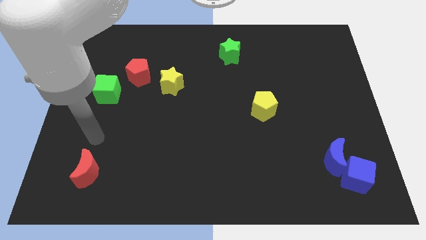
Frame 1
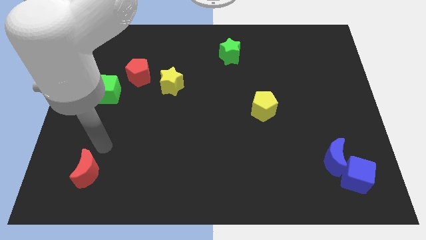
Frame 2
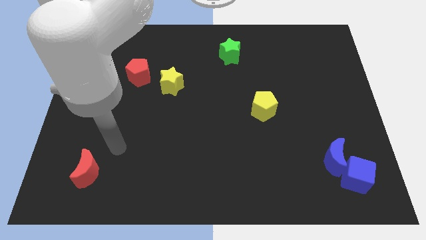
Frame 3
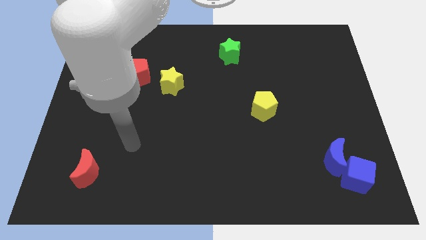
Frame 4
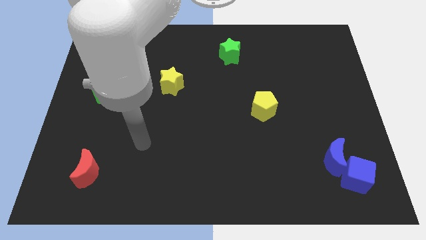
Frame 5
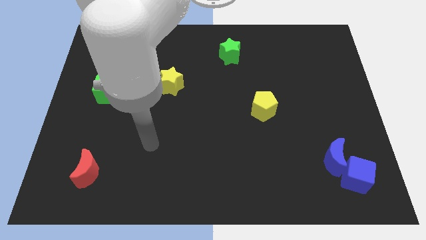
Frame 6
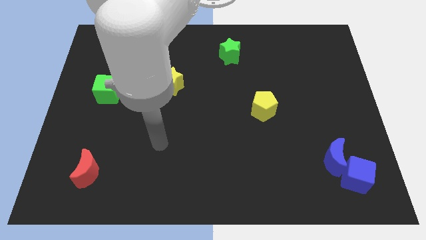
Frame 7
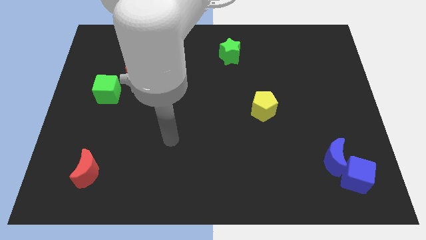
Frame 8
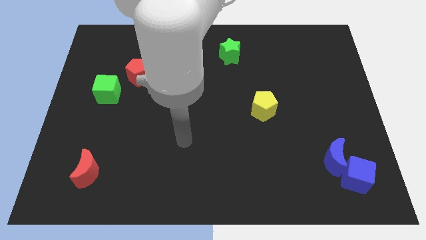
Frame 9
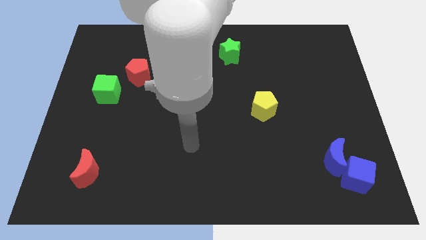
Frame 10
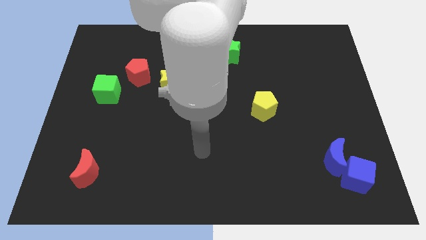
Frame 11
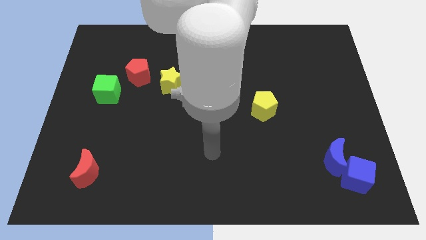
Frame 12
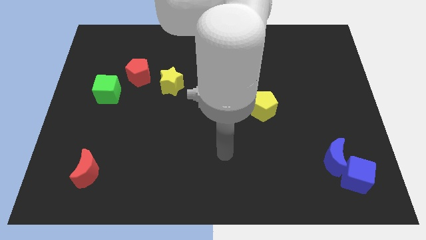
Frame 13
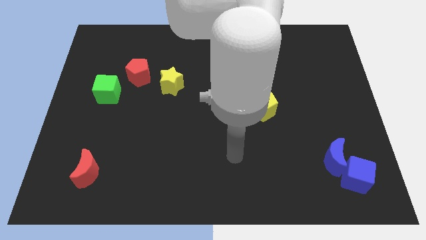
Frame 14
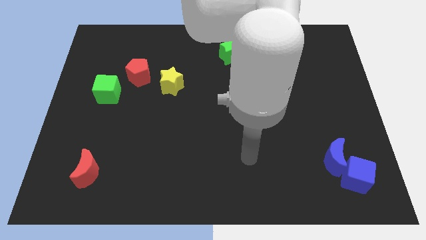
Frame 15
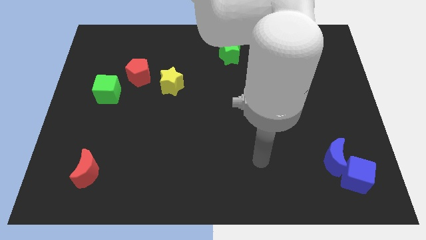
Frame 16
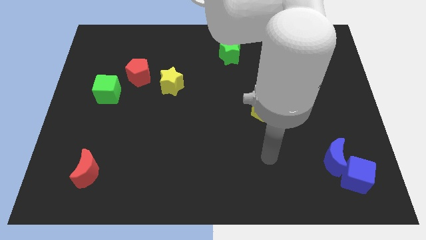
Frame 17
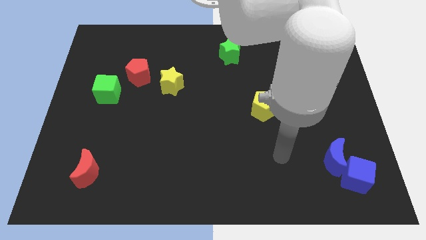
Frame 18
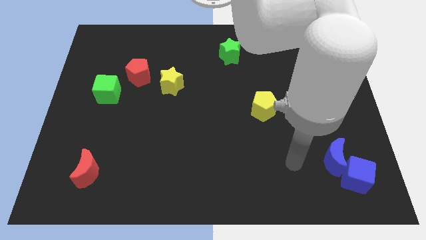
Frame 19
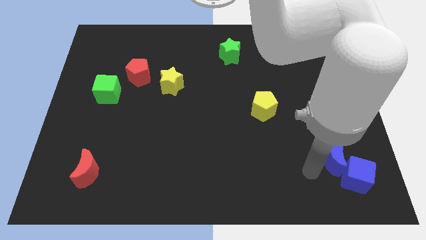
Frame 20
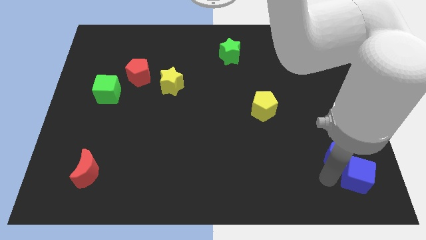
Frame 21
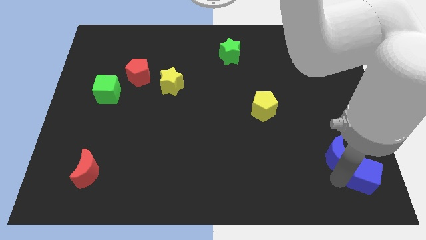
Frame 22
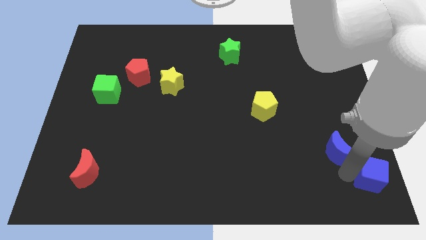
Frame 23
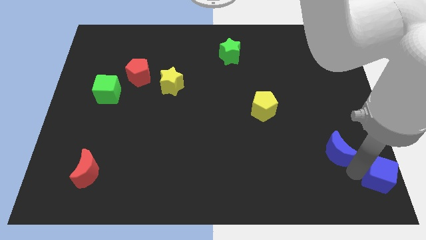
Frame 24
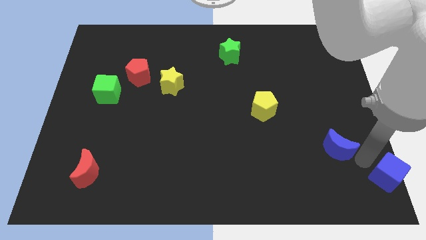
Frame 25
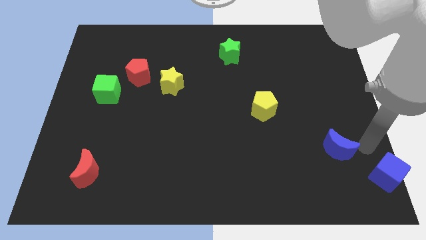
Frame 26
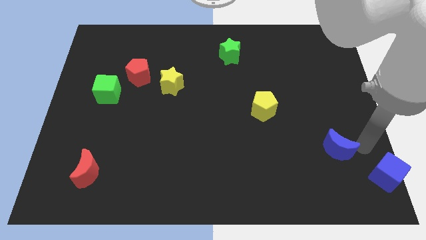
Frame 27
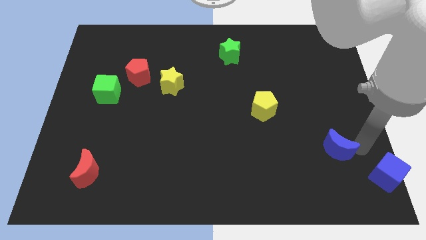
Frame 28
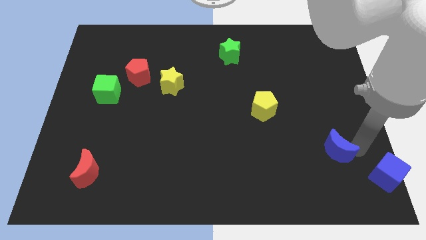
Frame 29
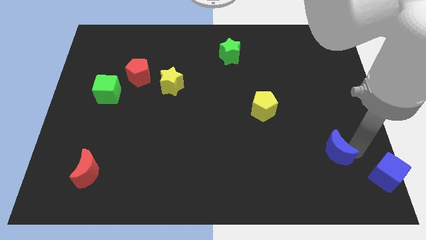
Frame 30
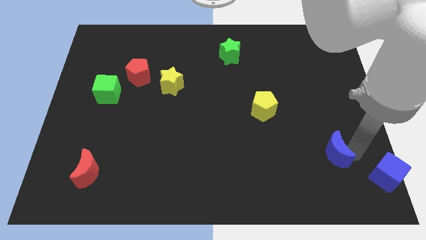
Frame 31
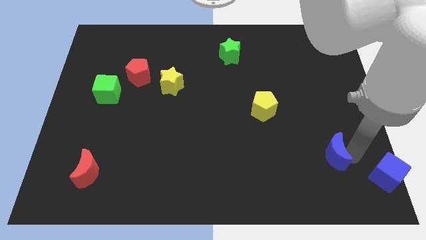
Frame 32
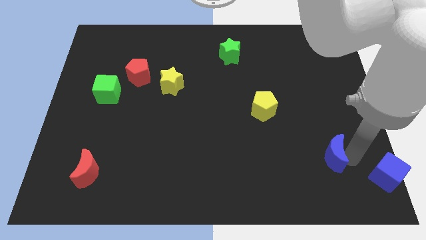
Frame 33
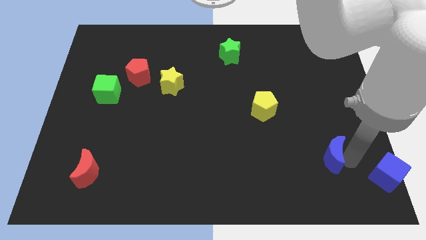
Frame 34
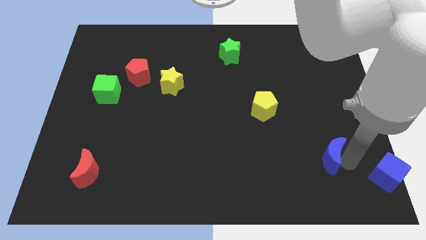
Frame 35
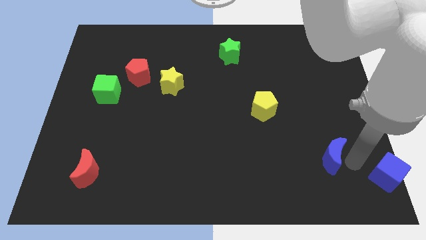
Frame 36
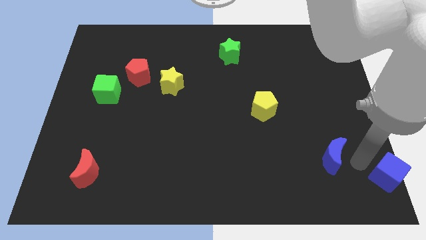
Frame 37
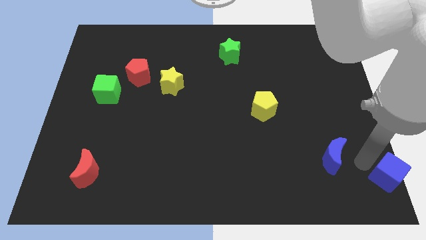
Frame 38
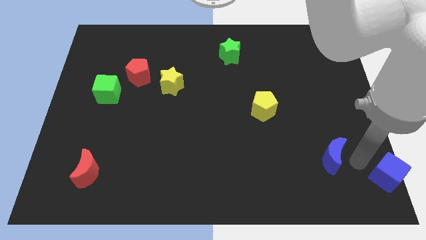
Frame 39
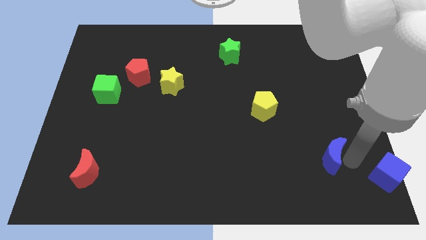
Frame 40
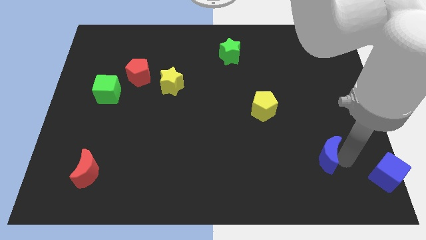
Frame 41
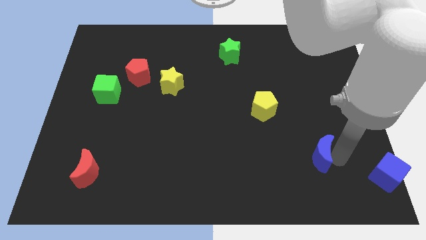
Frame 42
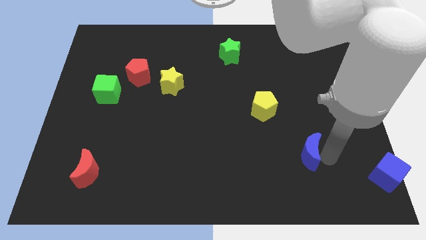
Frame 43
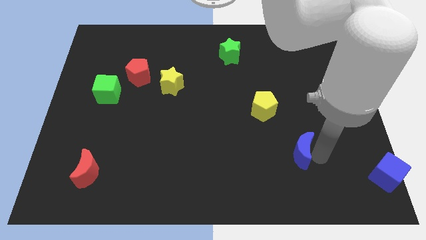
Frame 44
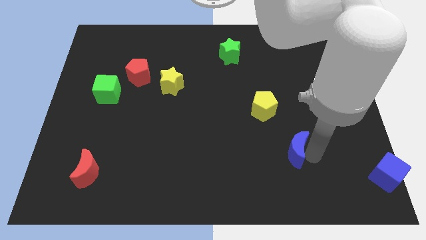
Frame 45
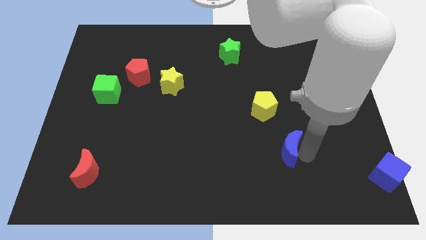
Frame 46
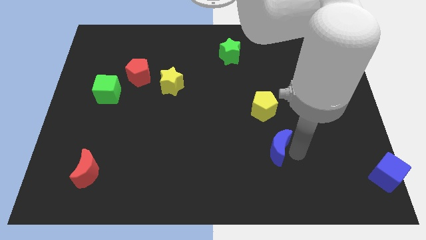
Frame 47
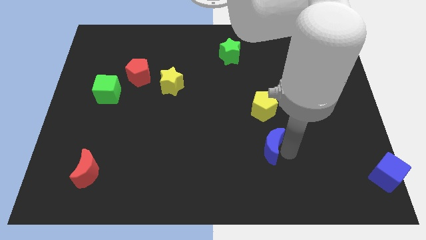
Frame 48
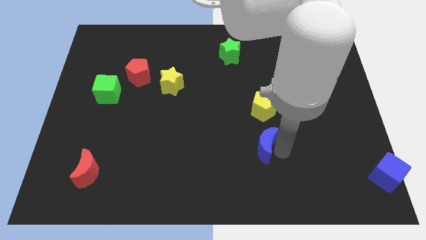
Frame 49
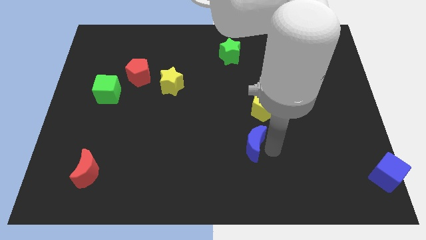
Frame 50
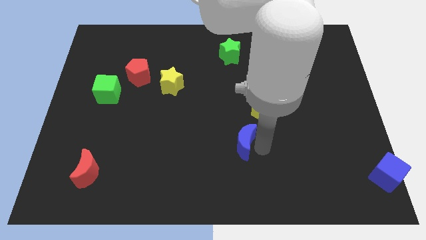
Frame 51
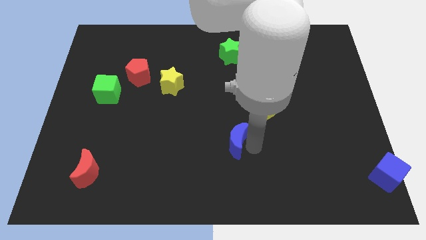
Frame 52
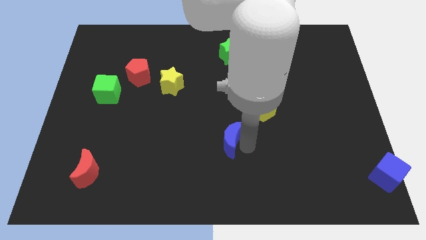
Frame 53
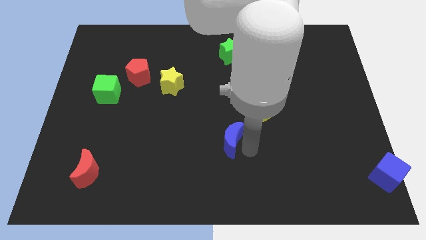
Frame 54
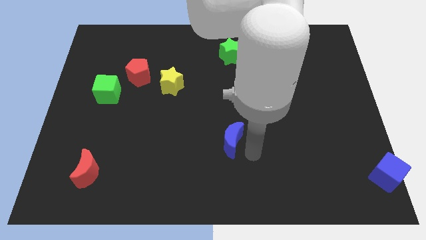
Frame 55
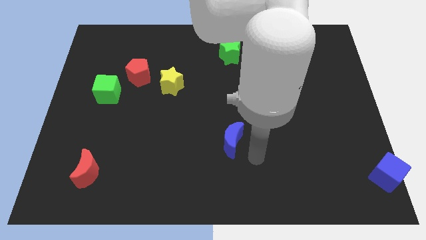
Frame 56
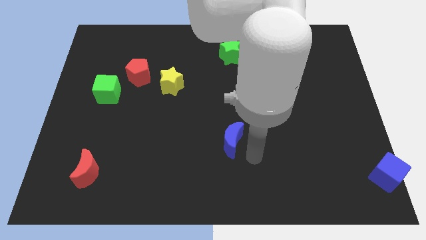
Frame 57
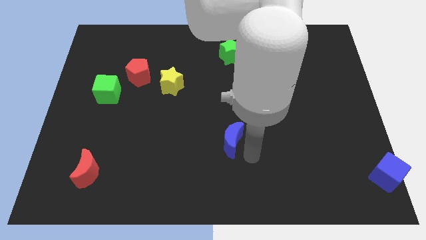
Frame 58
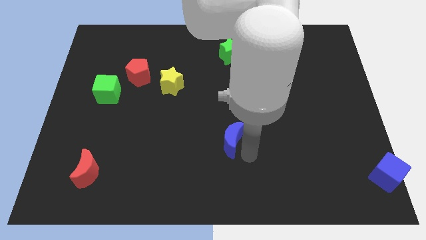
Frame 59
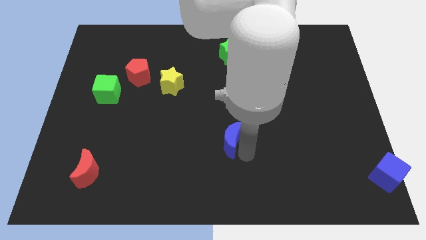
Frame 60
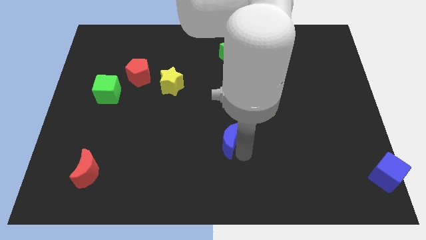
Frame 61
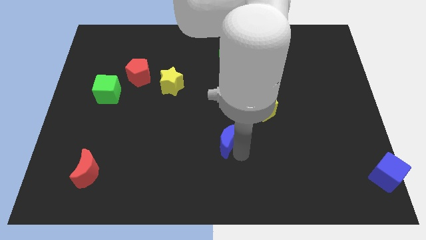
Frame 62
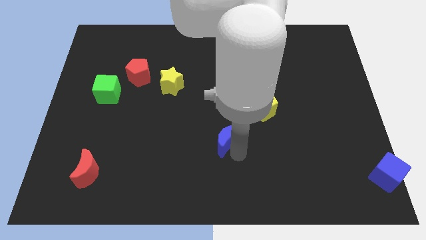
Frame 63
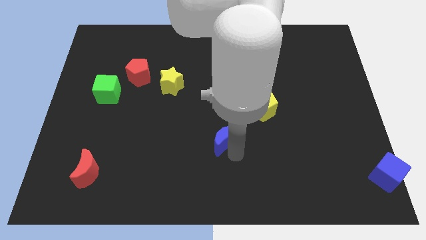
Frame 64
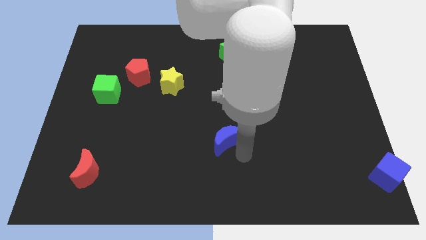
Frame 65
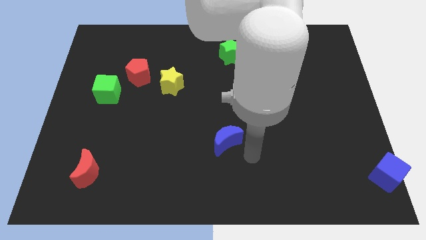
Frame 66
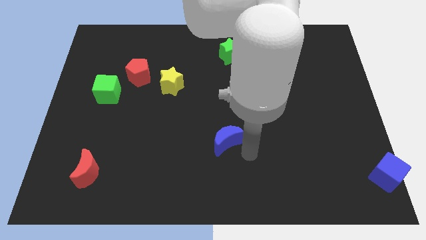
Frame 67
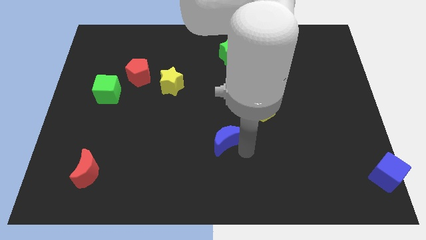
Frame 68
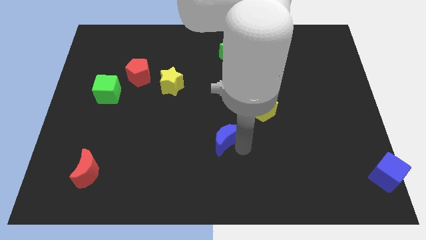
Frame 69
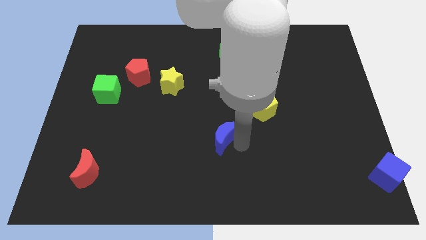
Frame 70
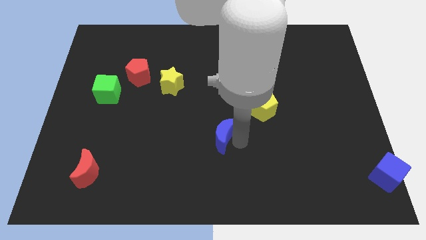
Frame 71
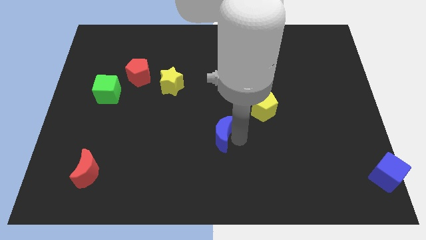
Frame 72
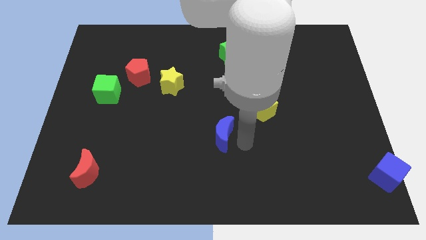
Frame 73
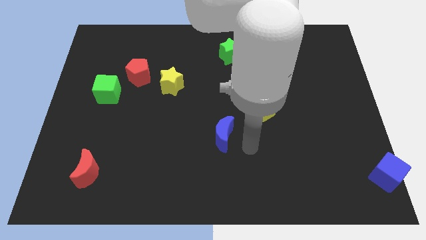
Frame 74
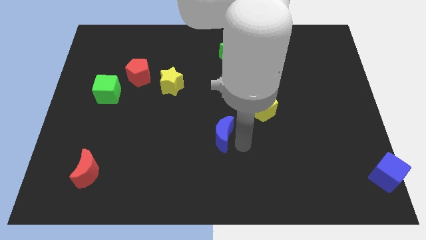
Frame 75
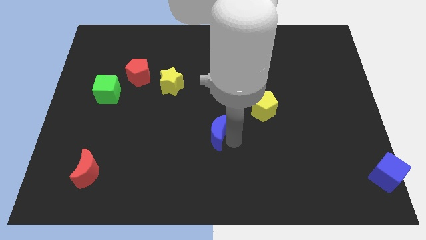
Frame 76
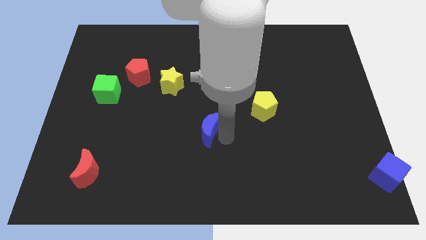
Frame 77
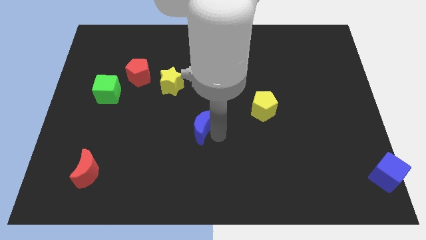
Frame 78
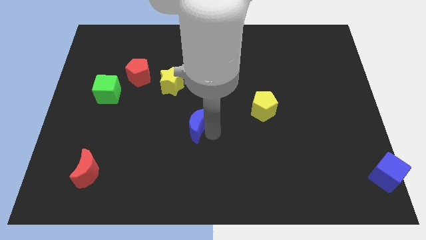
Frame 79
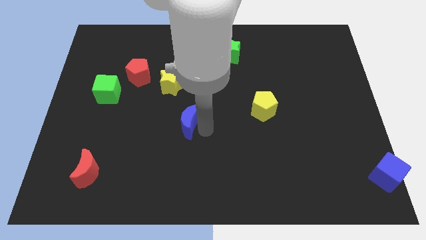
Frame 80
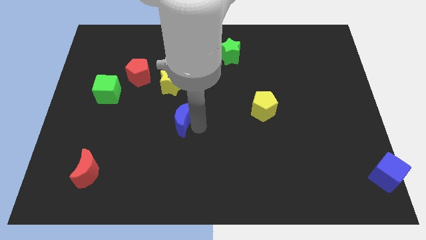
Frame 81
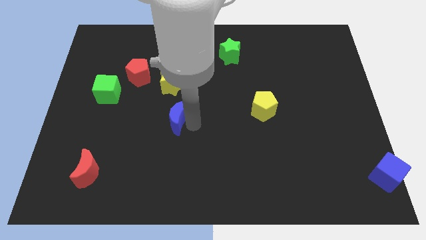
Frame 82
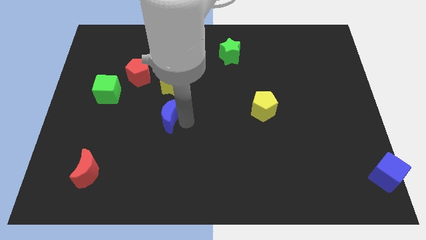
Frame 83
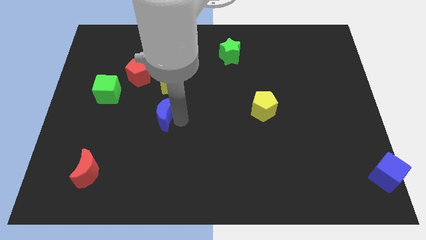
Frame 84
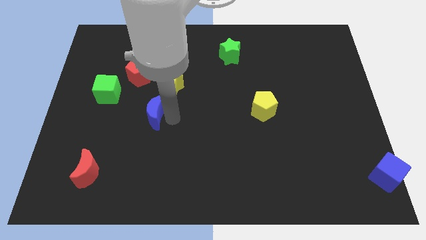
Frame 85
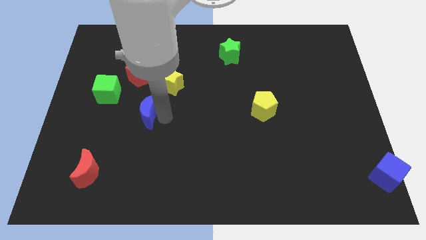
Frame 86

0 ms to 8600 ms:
move the blue moon to the bottom of the red pentagon
